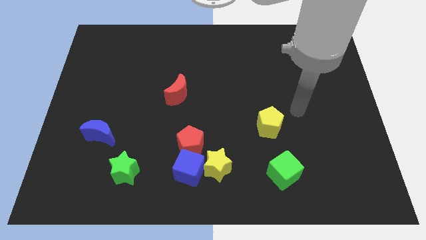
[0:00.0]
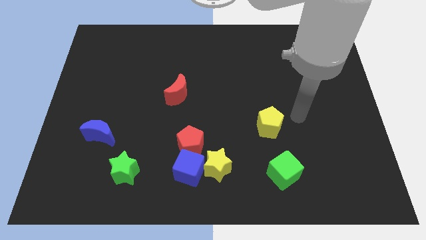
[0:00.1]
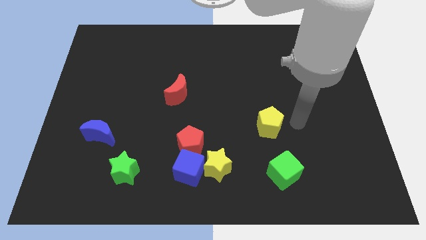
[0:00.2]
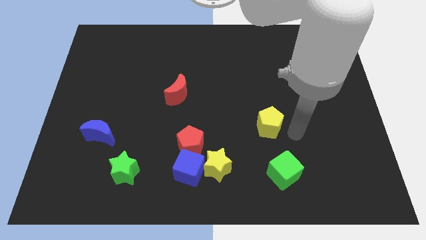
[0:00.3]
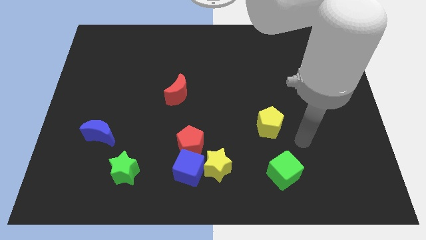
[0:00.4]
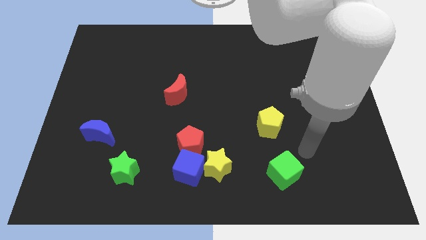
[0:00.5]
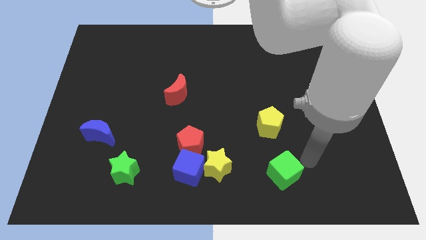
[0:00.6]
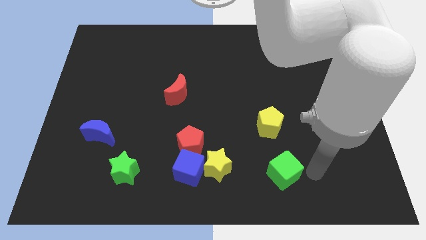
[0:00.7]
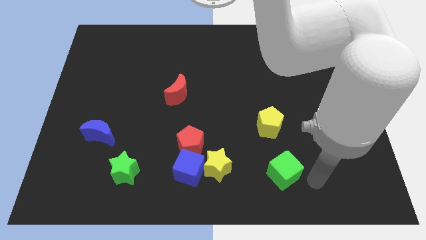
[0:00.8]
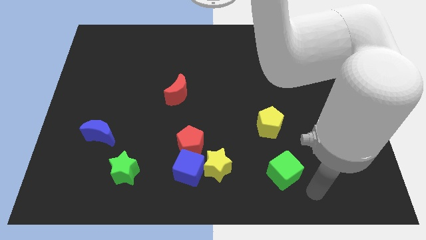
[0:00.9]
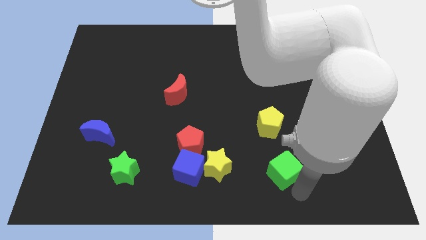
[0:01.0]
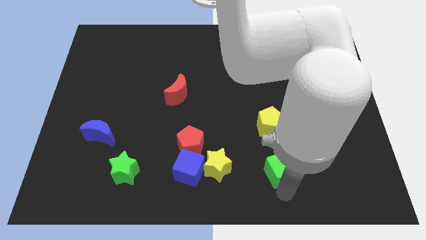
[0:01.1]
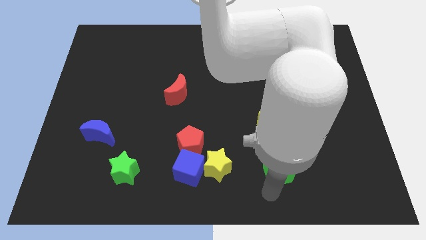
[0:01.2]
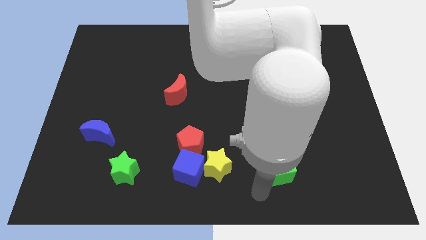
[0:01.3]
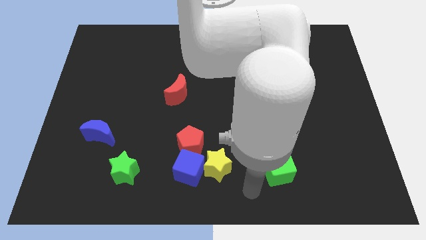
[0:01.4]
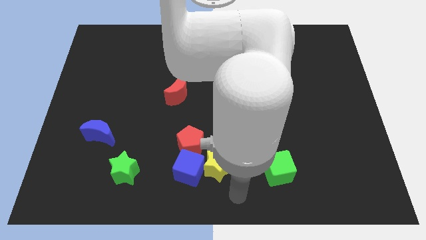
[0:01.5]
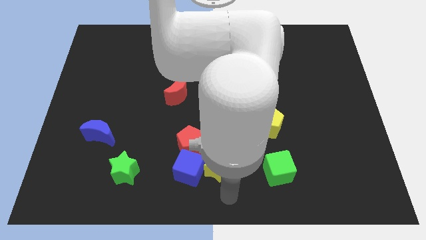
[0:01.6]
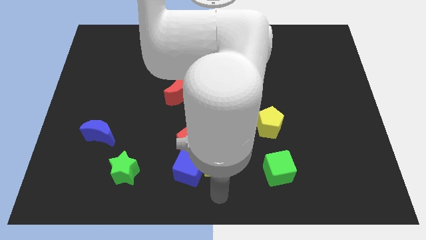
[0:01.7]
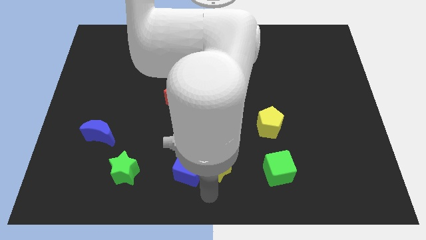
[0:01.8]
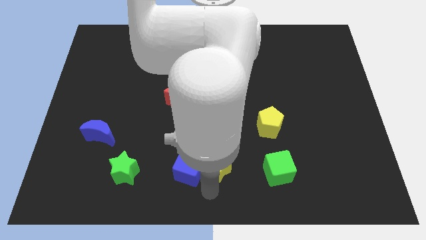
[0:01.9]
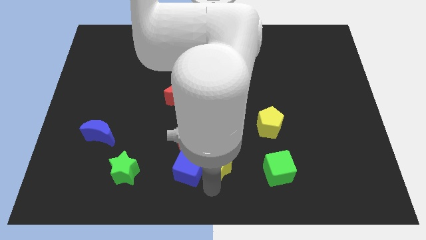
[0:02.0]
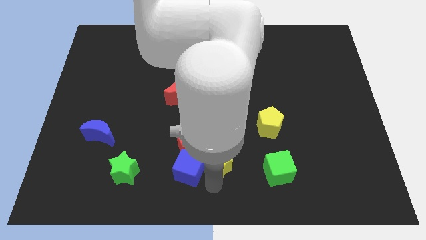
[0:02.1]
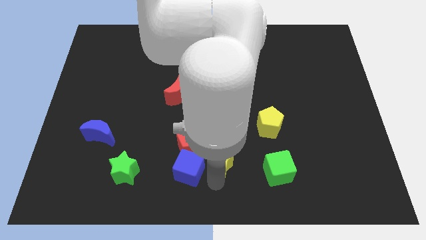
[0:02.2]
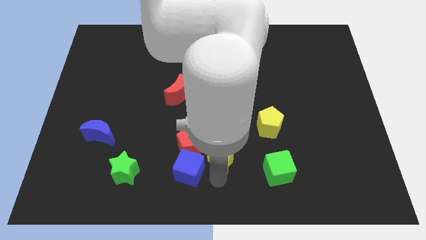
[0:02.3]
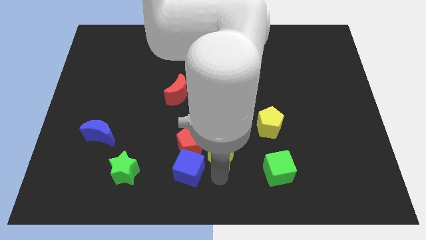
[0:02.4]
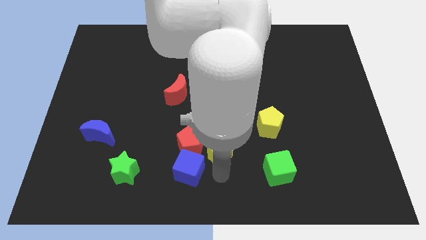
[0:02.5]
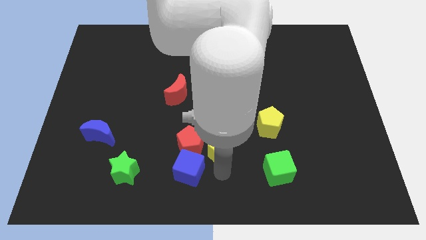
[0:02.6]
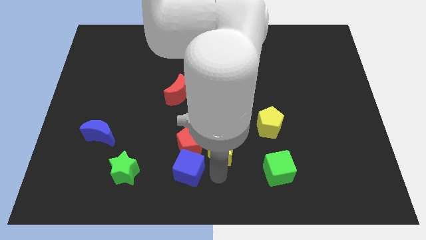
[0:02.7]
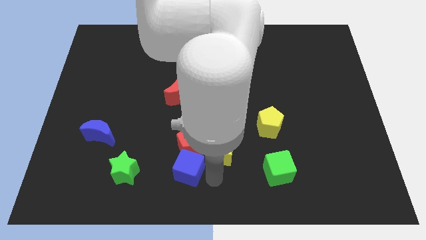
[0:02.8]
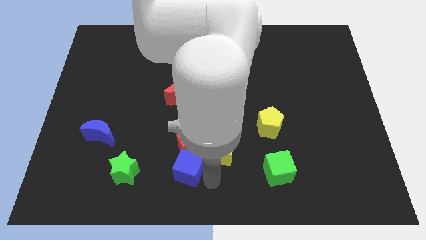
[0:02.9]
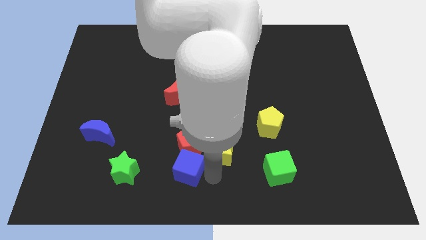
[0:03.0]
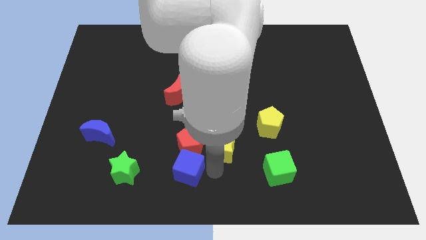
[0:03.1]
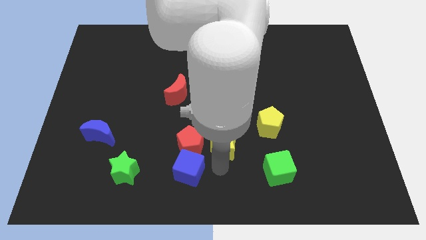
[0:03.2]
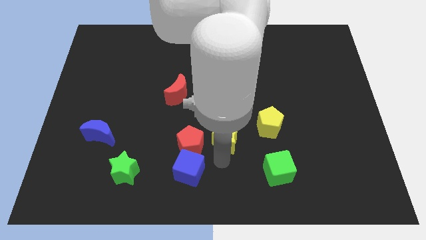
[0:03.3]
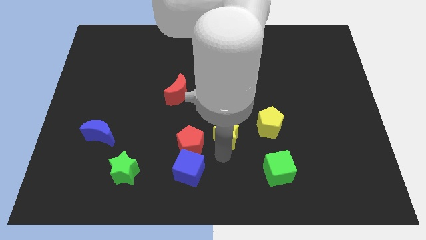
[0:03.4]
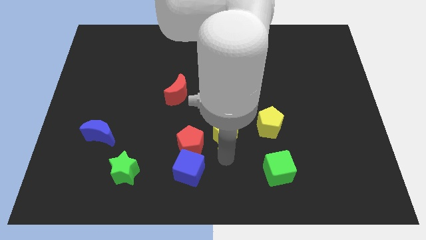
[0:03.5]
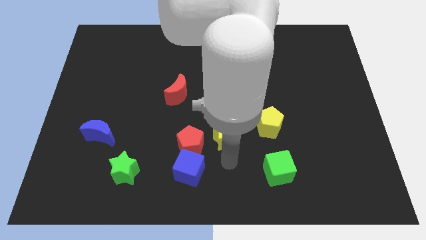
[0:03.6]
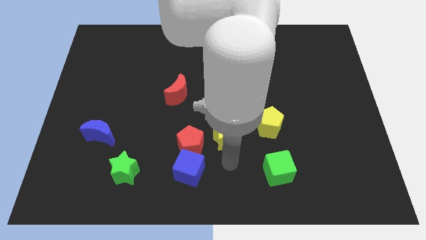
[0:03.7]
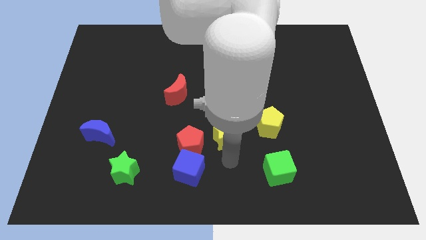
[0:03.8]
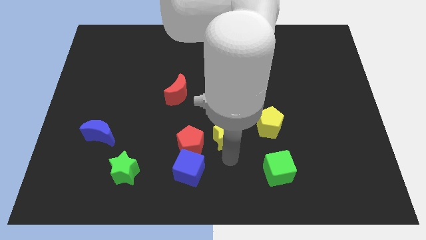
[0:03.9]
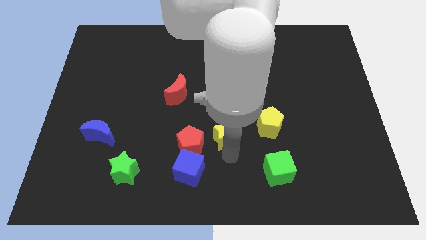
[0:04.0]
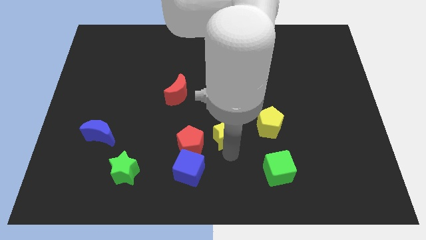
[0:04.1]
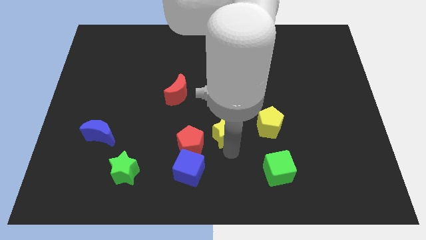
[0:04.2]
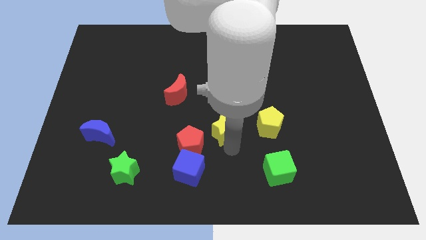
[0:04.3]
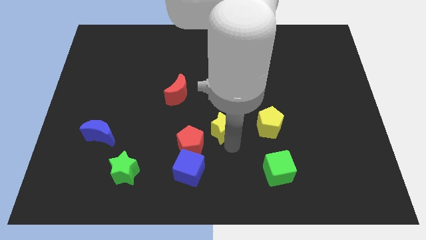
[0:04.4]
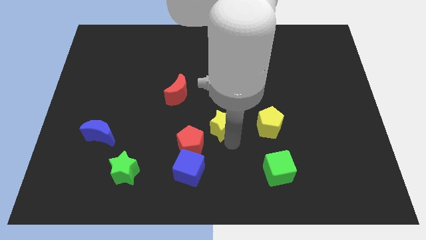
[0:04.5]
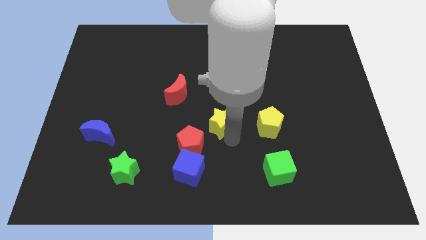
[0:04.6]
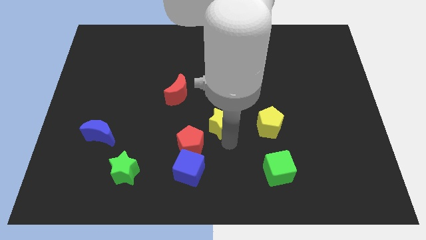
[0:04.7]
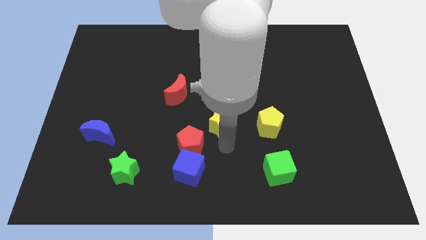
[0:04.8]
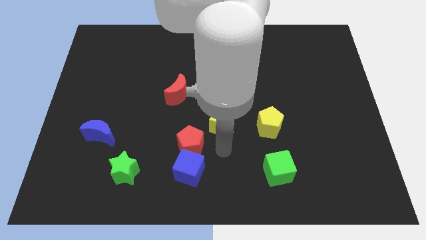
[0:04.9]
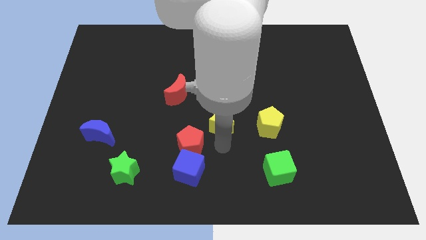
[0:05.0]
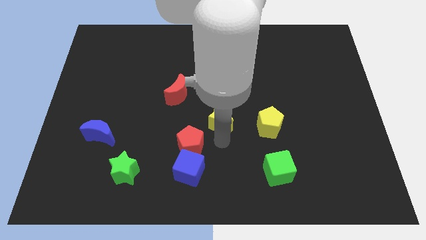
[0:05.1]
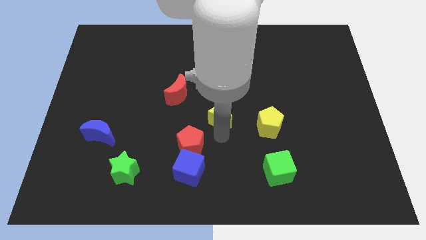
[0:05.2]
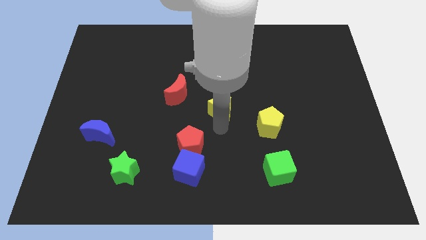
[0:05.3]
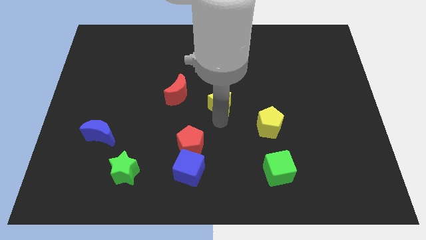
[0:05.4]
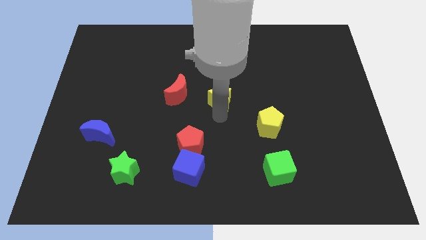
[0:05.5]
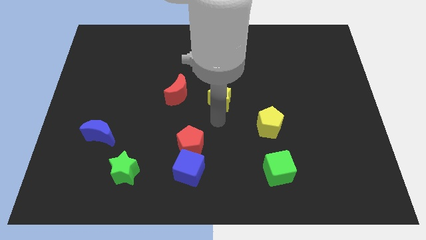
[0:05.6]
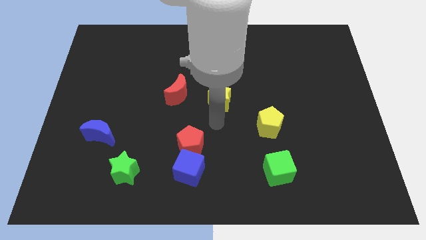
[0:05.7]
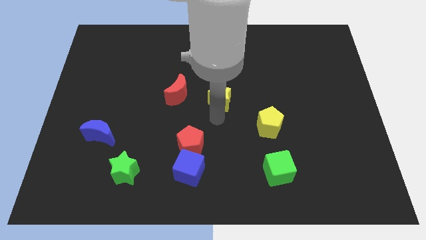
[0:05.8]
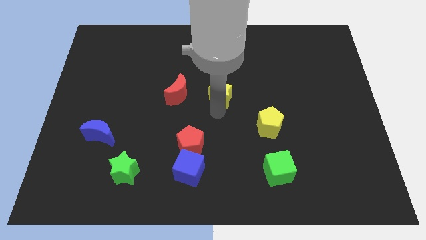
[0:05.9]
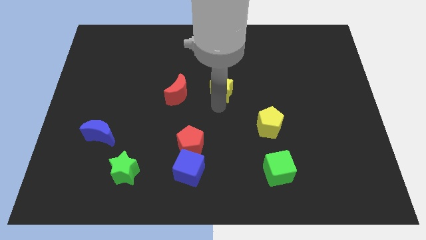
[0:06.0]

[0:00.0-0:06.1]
push the yellow star upwards

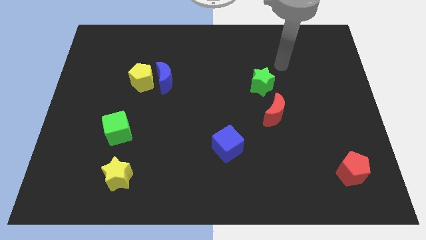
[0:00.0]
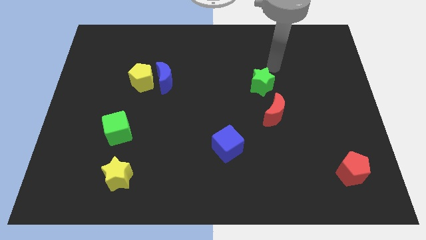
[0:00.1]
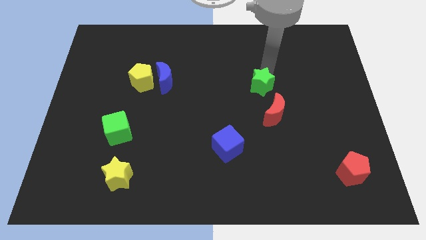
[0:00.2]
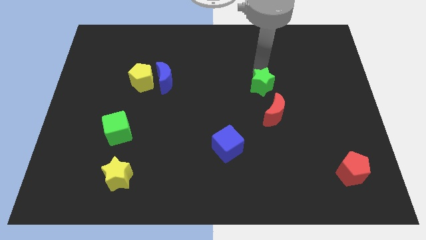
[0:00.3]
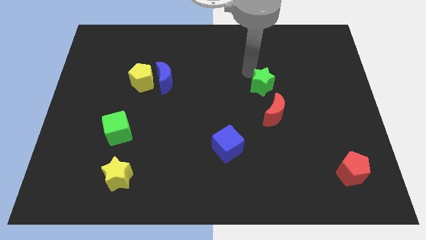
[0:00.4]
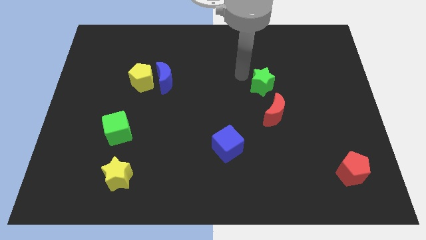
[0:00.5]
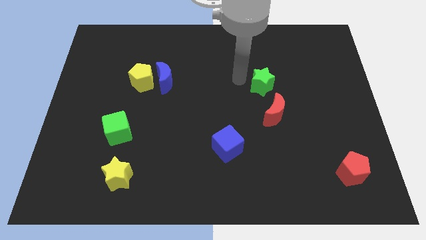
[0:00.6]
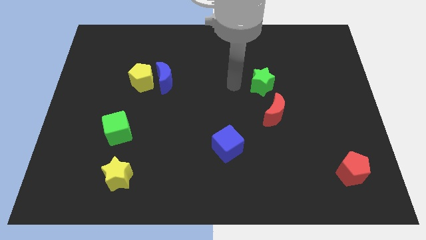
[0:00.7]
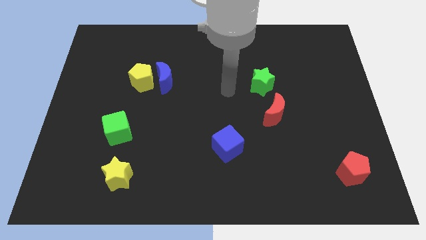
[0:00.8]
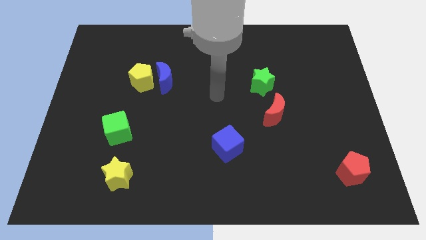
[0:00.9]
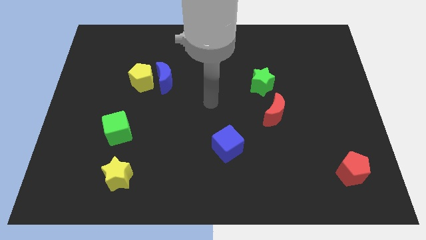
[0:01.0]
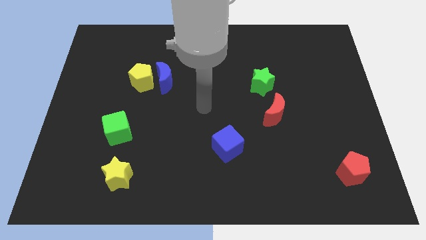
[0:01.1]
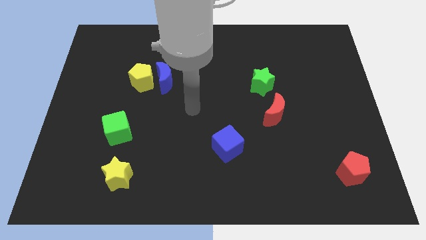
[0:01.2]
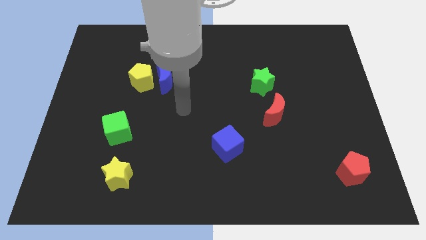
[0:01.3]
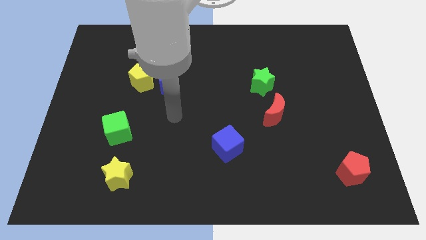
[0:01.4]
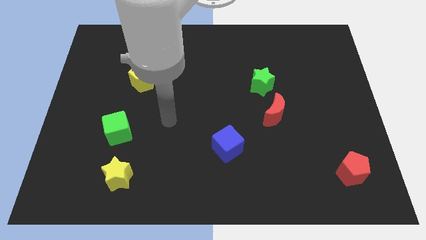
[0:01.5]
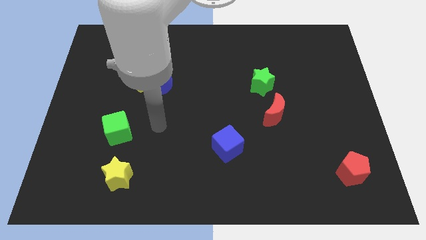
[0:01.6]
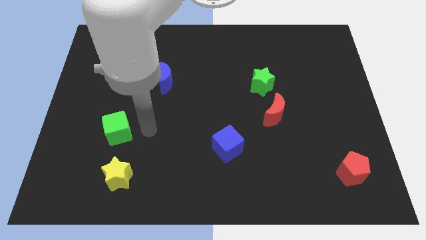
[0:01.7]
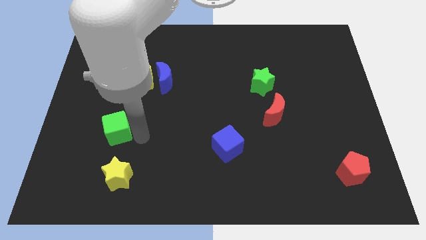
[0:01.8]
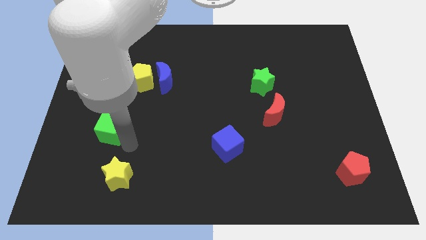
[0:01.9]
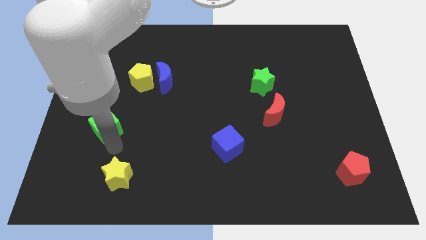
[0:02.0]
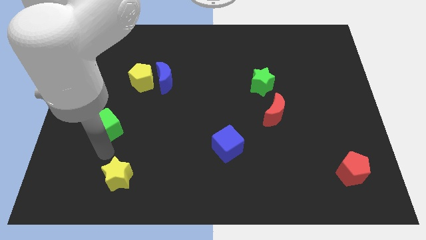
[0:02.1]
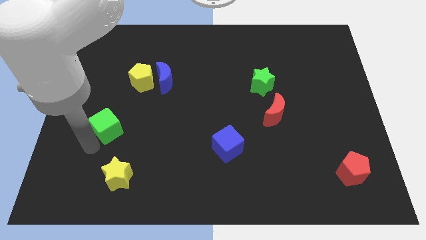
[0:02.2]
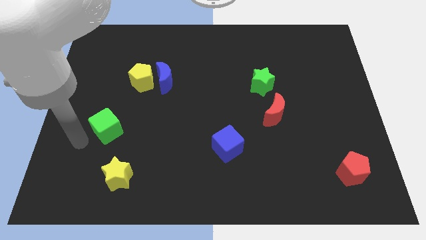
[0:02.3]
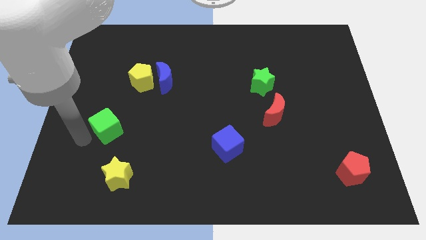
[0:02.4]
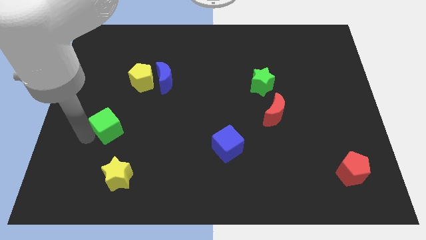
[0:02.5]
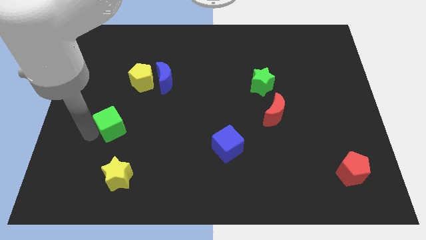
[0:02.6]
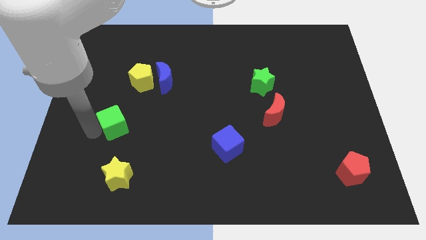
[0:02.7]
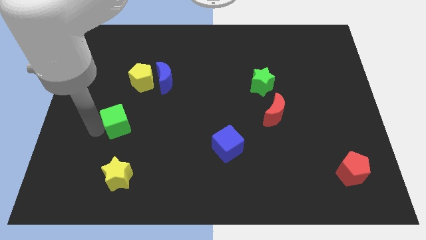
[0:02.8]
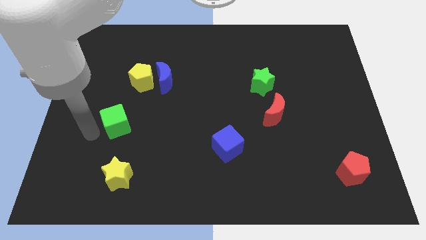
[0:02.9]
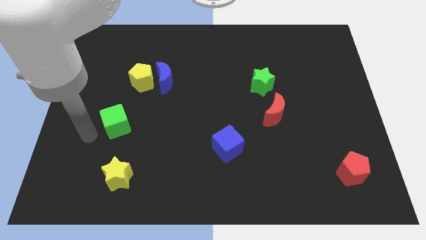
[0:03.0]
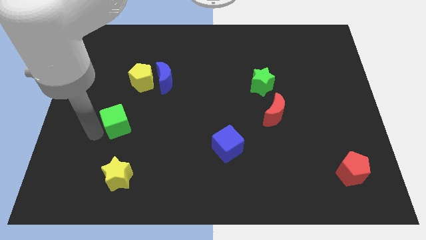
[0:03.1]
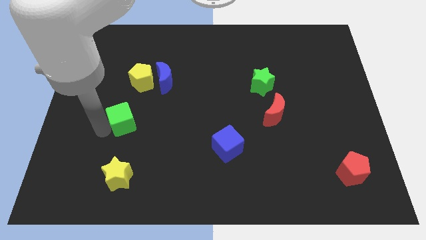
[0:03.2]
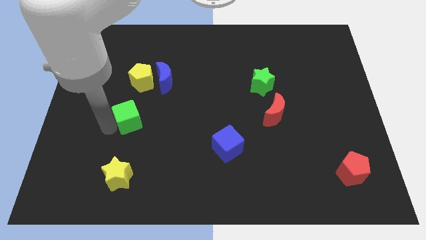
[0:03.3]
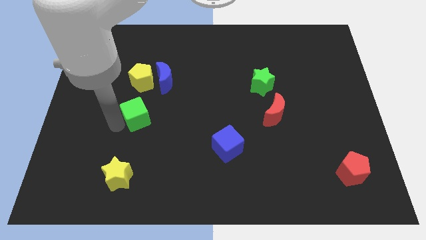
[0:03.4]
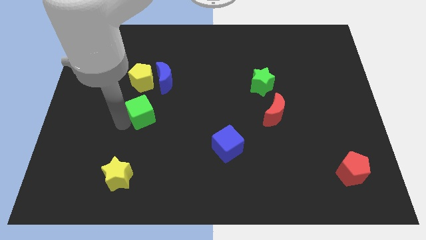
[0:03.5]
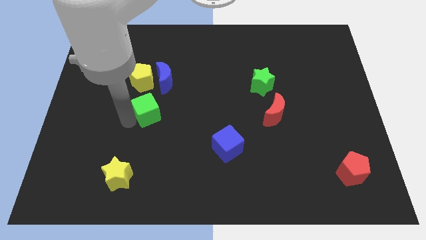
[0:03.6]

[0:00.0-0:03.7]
push the green cube a little up and to the right
